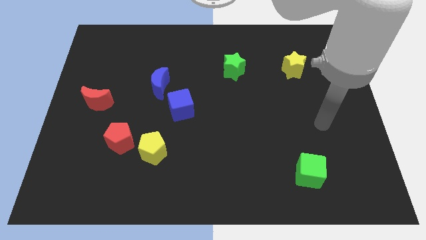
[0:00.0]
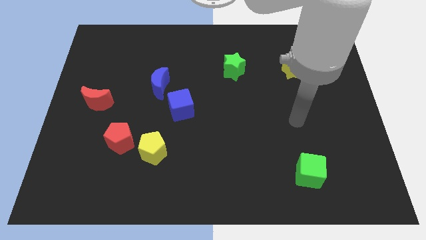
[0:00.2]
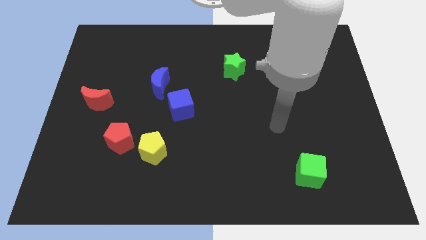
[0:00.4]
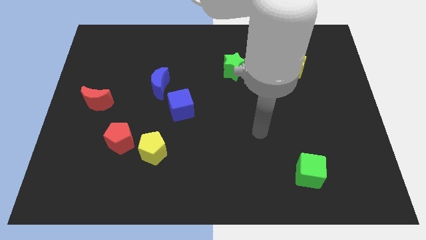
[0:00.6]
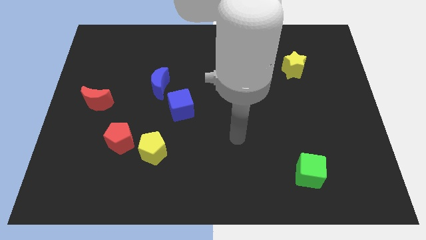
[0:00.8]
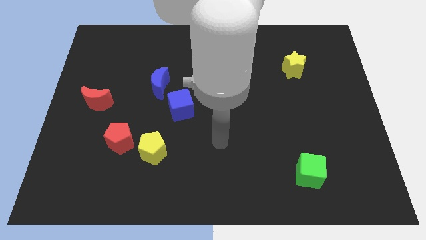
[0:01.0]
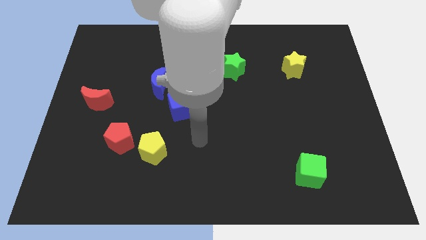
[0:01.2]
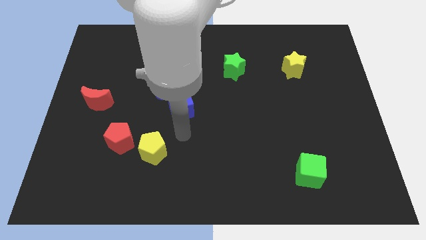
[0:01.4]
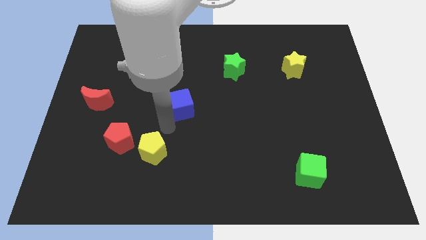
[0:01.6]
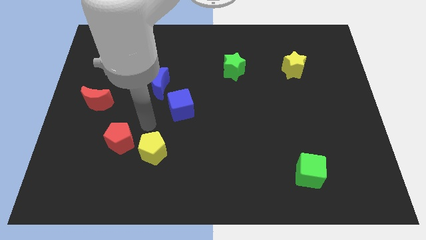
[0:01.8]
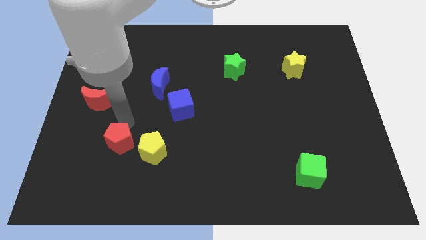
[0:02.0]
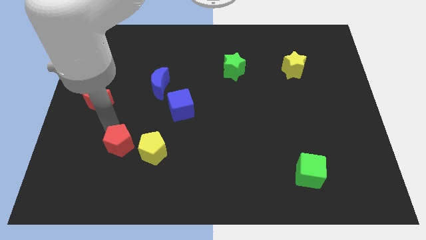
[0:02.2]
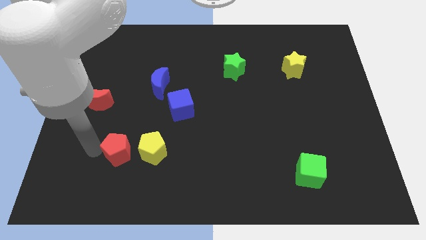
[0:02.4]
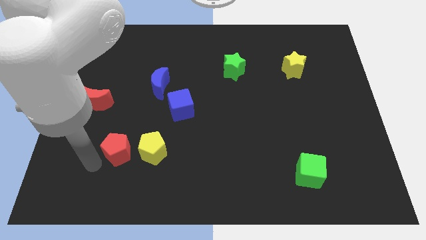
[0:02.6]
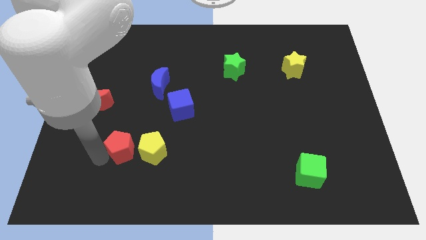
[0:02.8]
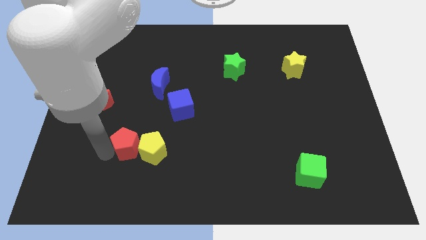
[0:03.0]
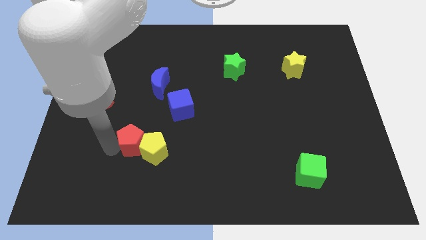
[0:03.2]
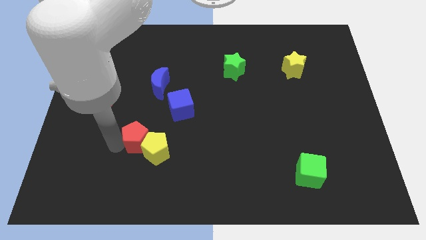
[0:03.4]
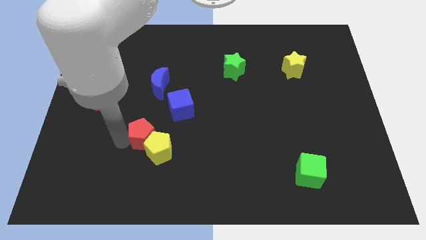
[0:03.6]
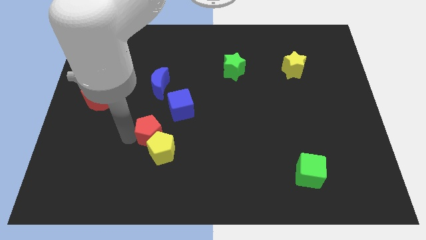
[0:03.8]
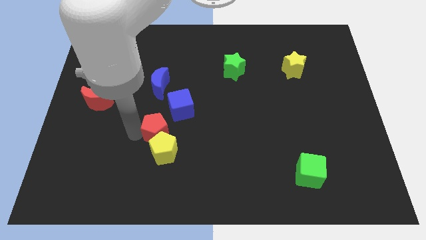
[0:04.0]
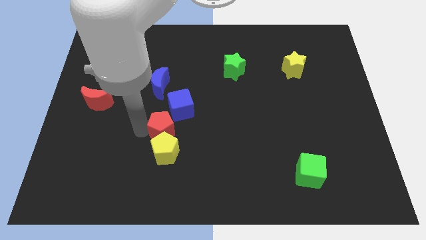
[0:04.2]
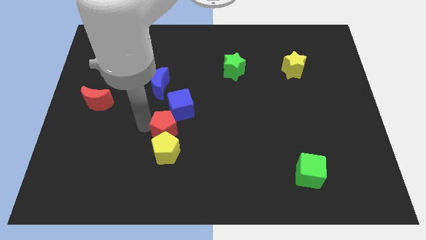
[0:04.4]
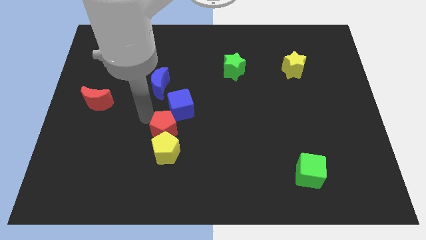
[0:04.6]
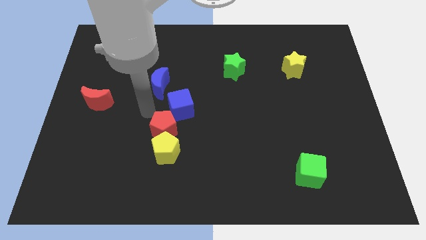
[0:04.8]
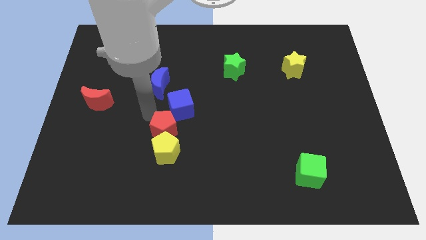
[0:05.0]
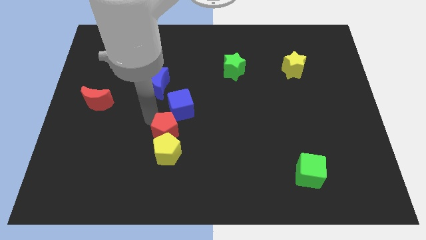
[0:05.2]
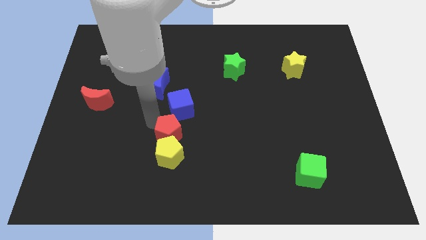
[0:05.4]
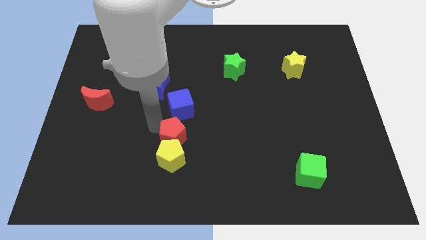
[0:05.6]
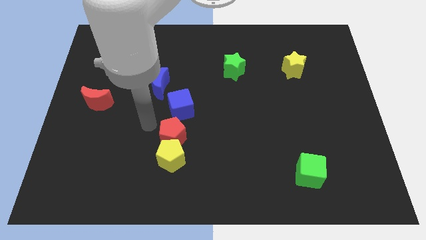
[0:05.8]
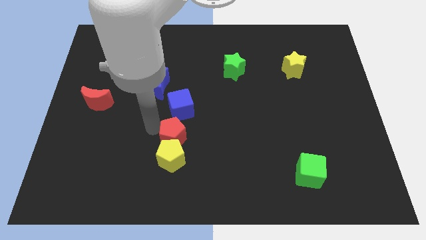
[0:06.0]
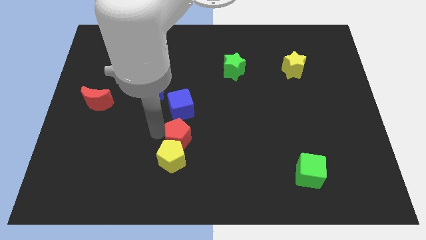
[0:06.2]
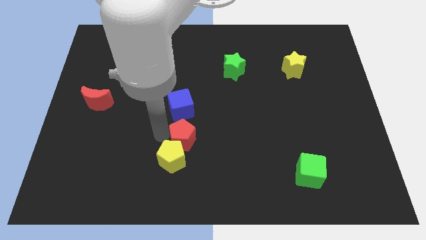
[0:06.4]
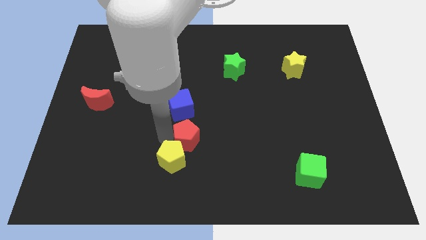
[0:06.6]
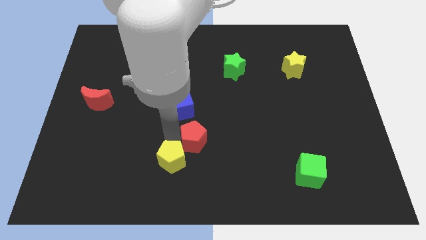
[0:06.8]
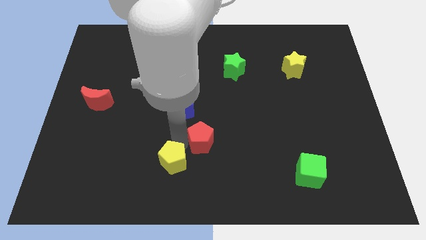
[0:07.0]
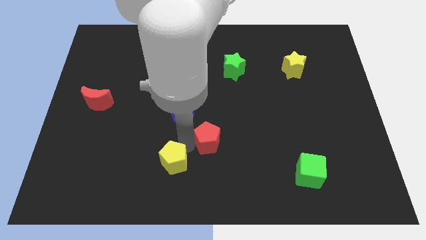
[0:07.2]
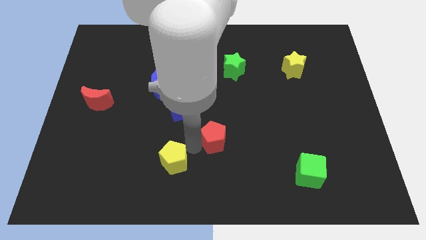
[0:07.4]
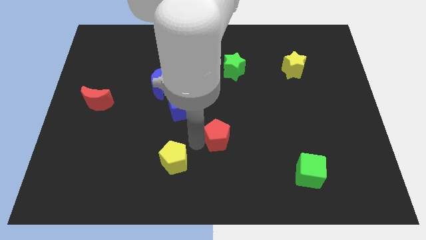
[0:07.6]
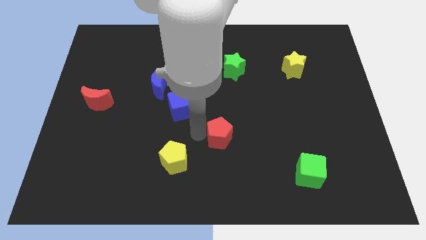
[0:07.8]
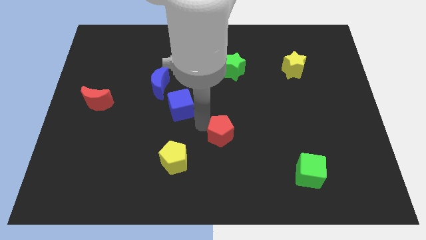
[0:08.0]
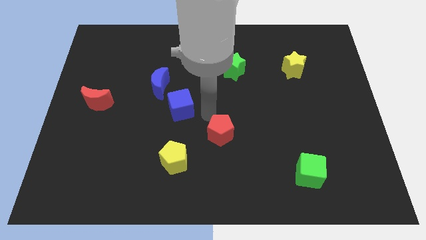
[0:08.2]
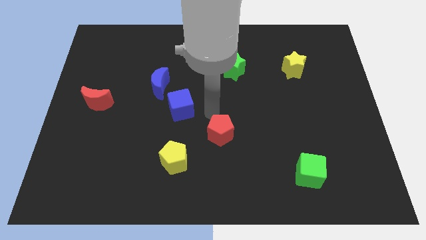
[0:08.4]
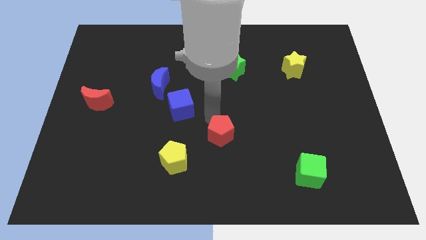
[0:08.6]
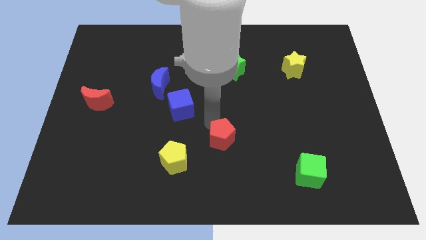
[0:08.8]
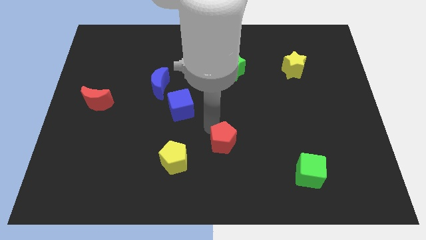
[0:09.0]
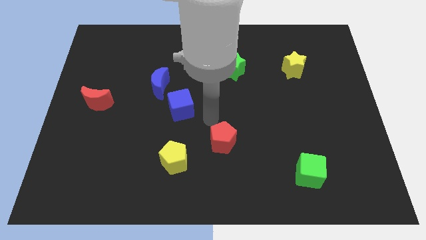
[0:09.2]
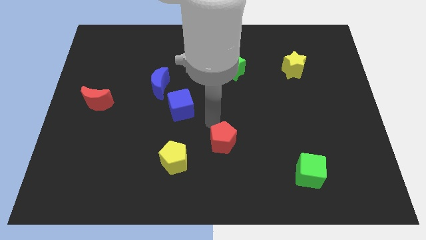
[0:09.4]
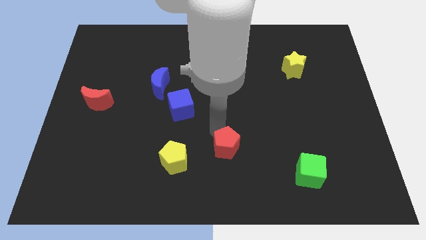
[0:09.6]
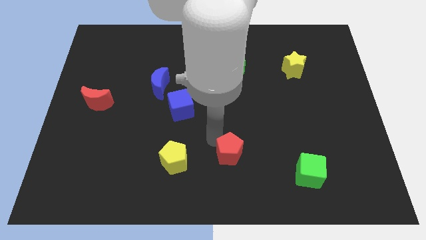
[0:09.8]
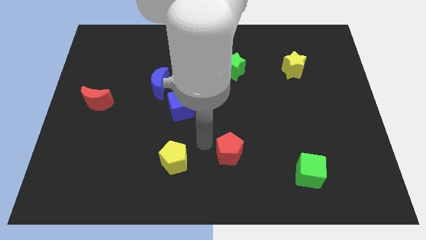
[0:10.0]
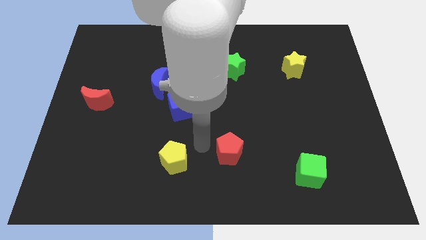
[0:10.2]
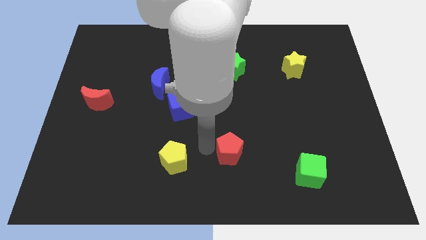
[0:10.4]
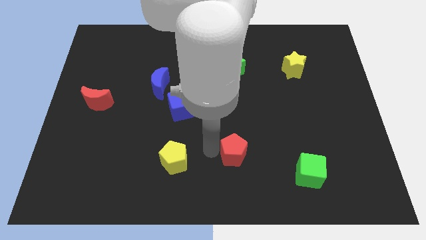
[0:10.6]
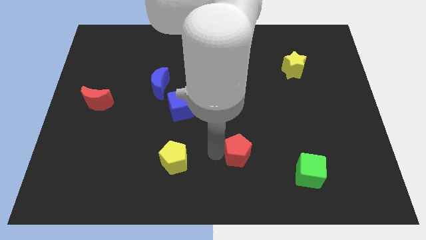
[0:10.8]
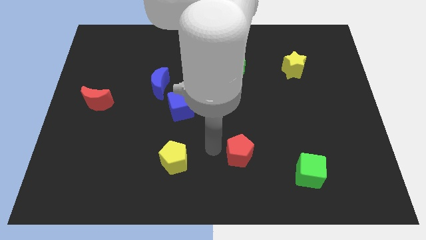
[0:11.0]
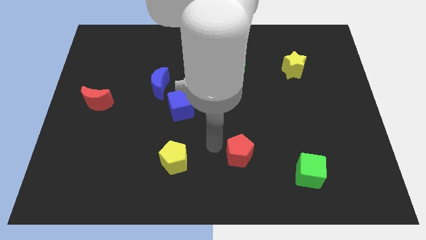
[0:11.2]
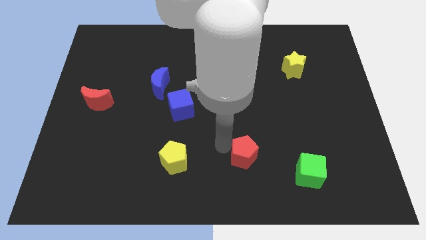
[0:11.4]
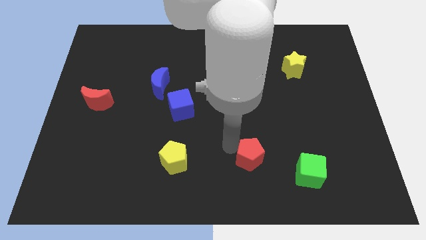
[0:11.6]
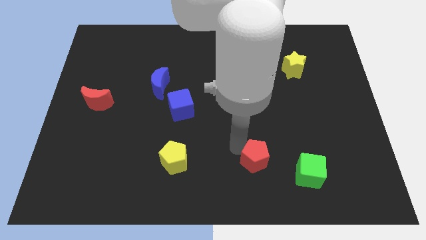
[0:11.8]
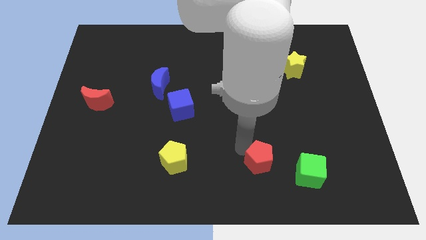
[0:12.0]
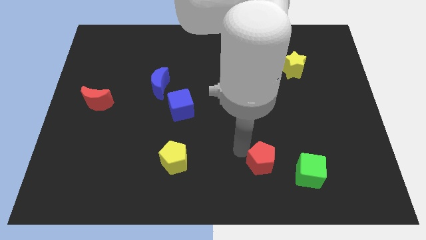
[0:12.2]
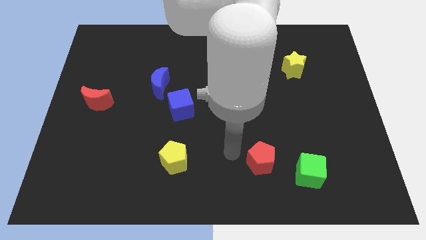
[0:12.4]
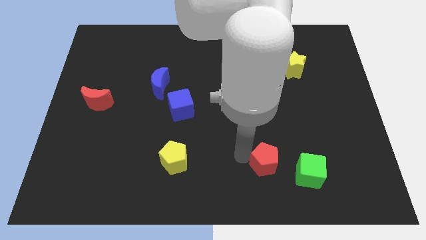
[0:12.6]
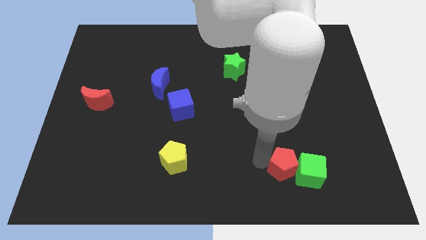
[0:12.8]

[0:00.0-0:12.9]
move the red pentagon next to the green cube

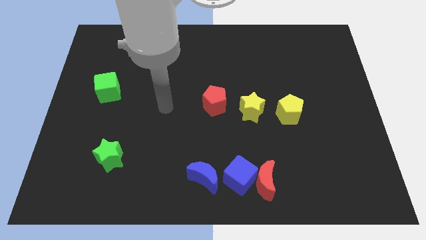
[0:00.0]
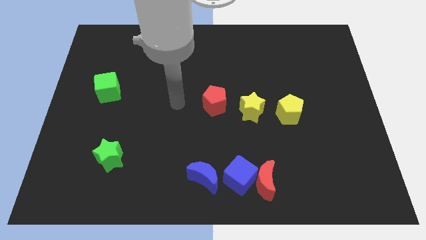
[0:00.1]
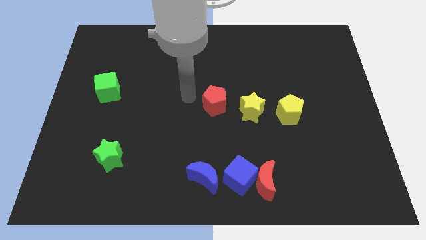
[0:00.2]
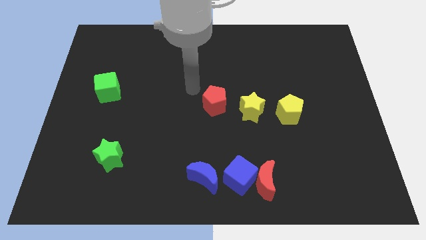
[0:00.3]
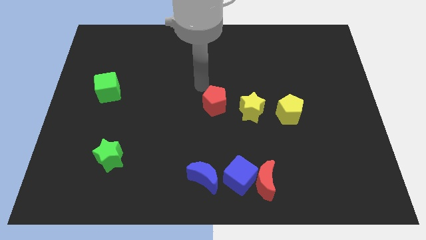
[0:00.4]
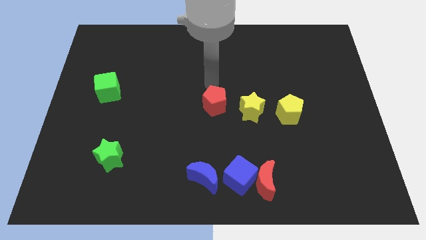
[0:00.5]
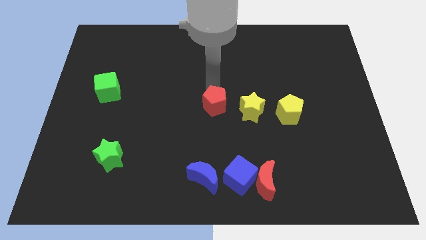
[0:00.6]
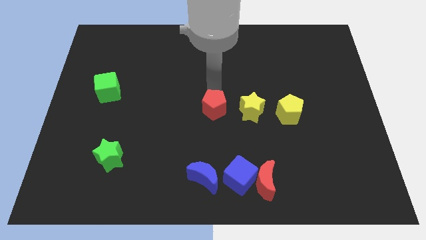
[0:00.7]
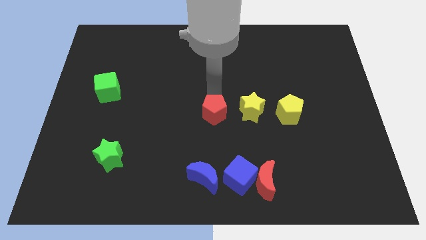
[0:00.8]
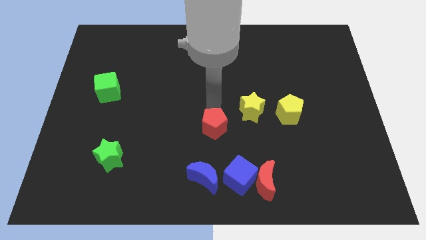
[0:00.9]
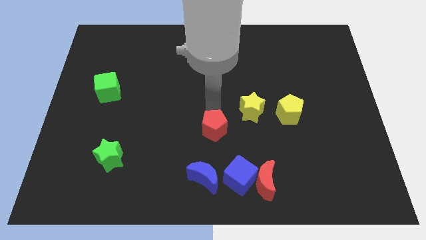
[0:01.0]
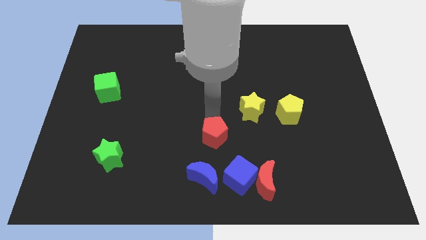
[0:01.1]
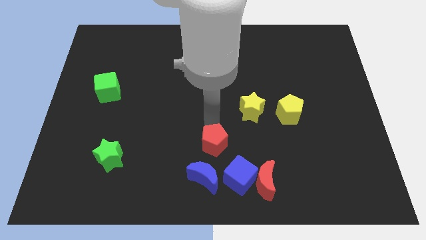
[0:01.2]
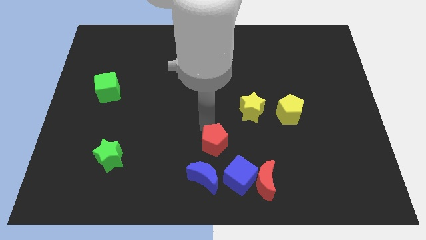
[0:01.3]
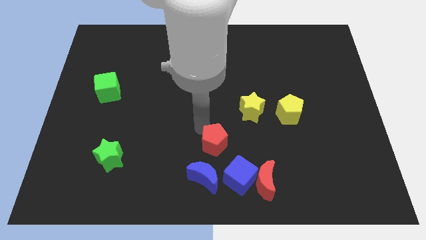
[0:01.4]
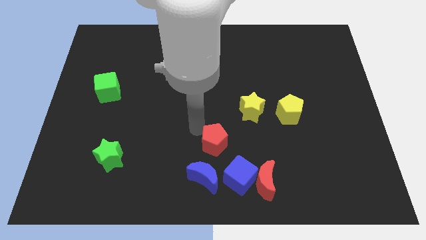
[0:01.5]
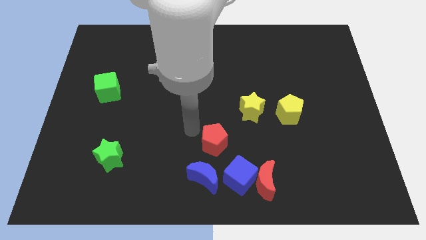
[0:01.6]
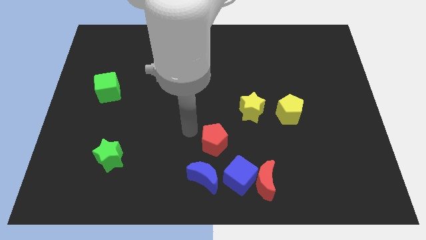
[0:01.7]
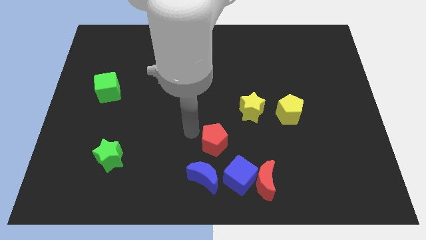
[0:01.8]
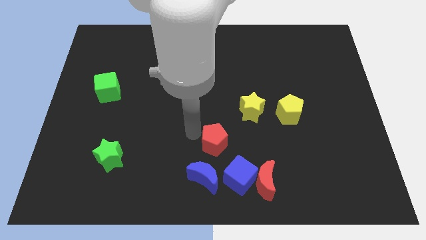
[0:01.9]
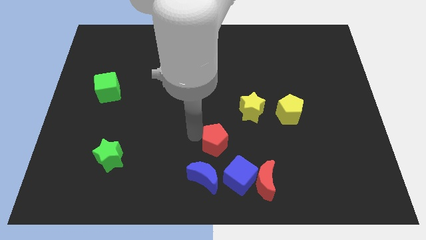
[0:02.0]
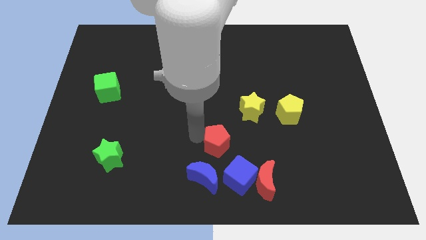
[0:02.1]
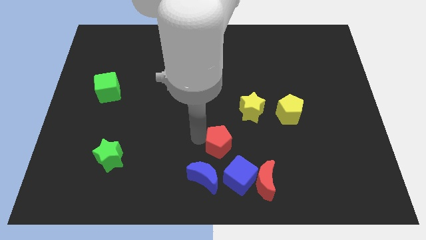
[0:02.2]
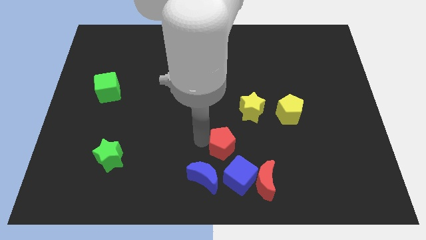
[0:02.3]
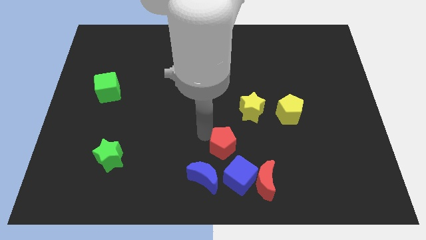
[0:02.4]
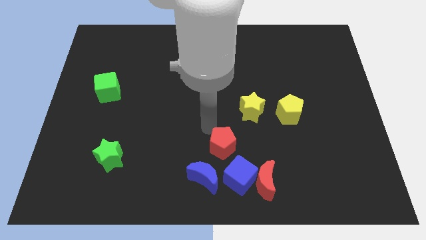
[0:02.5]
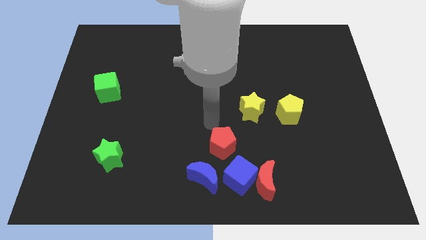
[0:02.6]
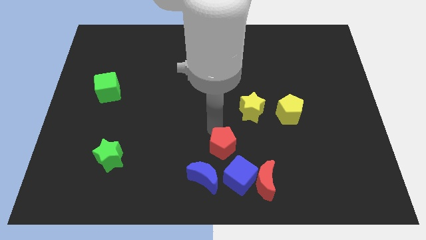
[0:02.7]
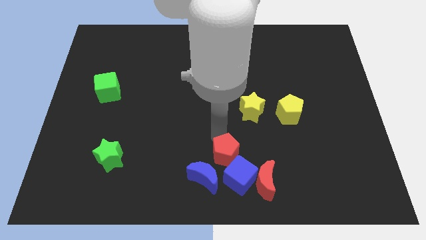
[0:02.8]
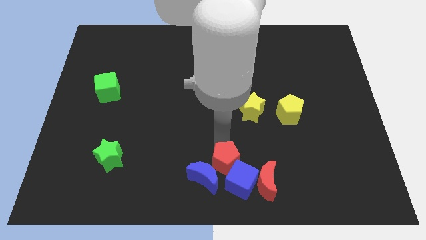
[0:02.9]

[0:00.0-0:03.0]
put the red pentagon close to the blue cube
